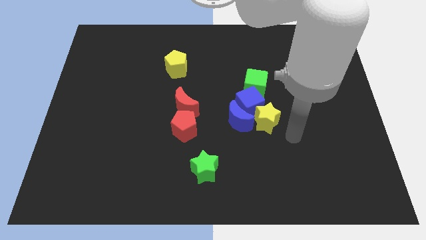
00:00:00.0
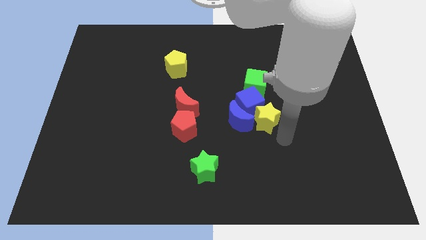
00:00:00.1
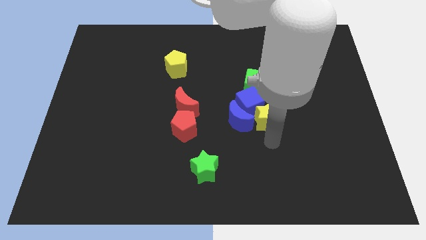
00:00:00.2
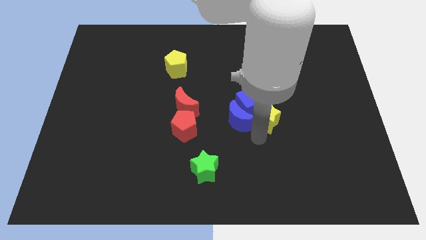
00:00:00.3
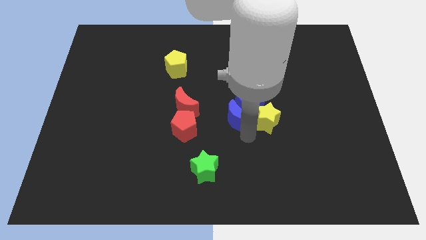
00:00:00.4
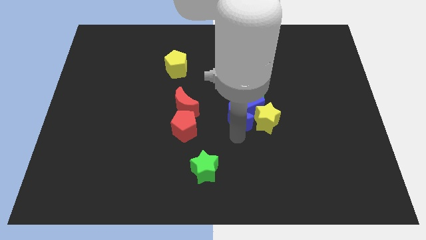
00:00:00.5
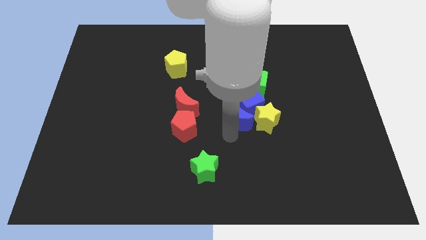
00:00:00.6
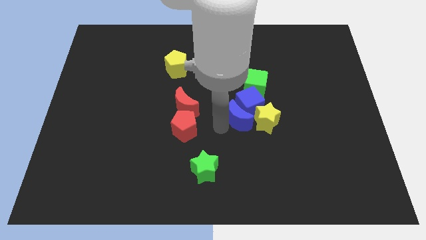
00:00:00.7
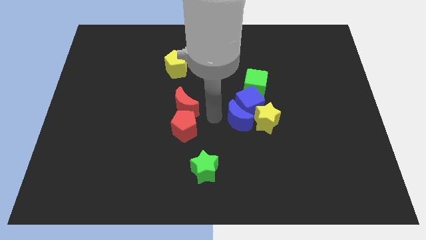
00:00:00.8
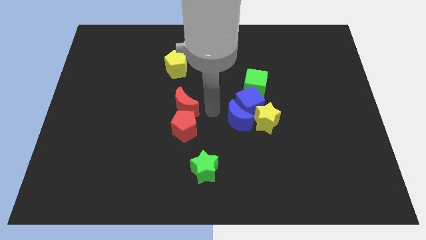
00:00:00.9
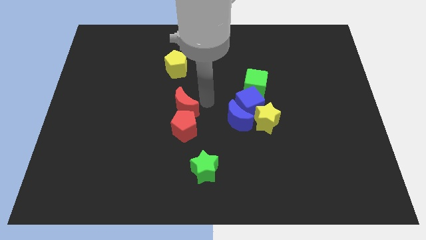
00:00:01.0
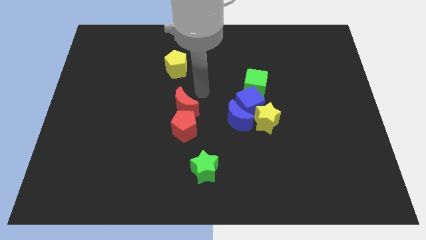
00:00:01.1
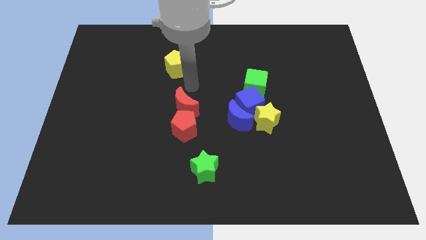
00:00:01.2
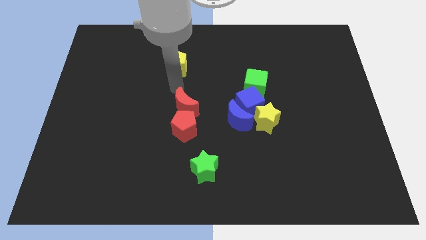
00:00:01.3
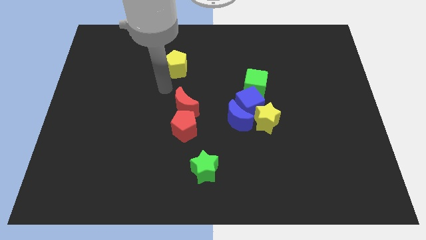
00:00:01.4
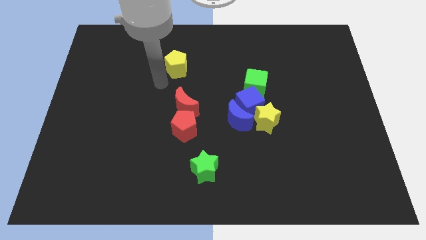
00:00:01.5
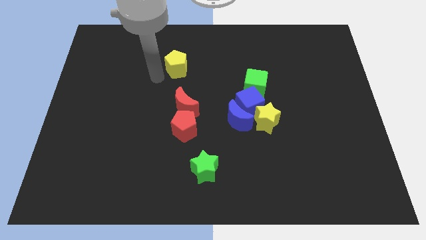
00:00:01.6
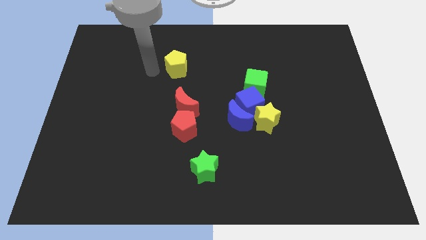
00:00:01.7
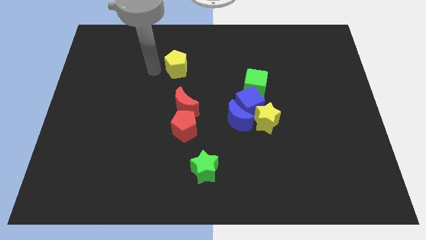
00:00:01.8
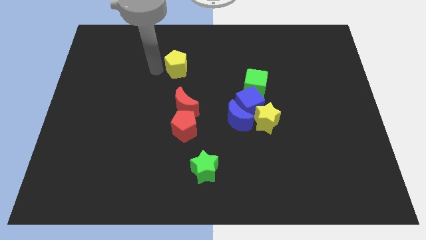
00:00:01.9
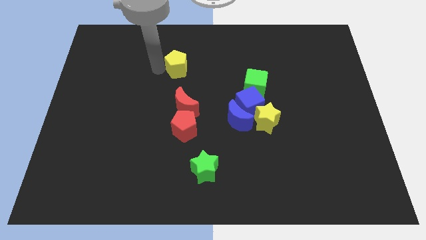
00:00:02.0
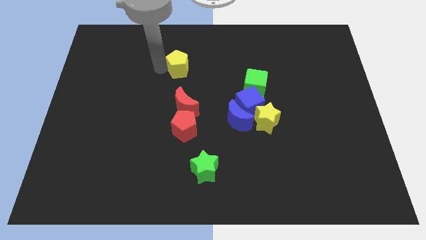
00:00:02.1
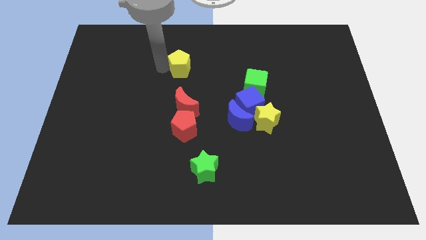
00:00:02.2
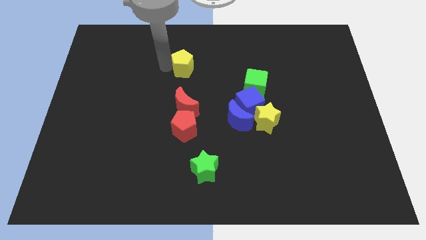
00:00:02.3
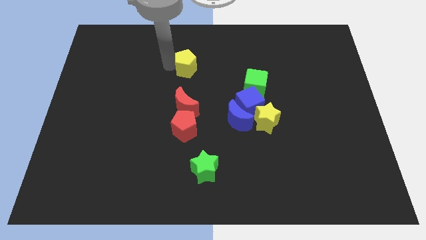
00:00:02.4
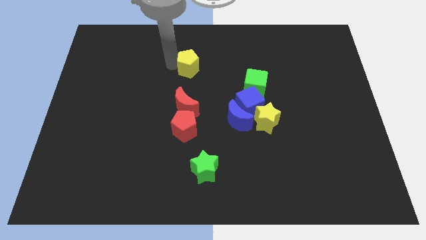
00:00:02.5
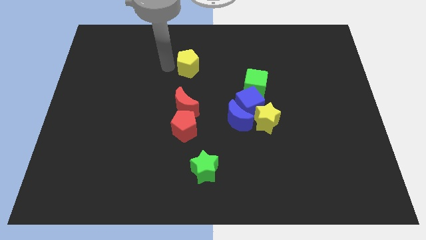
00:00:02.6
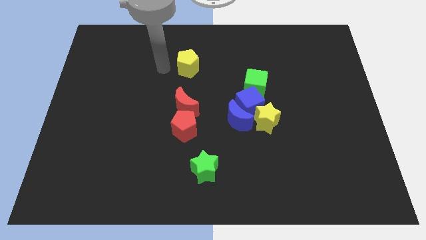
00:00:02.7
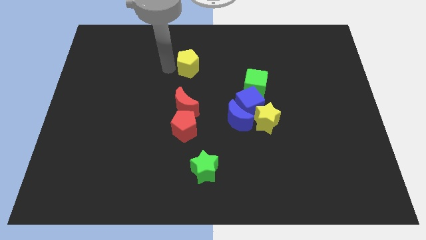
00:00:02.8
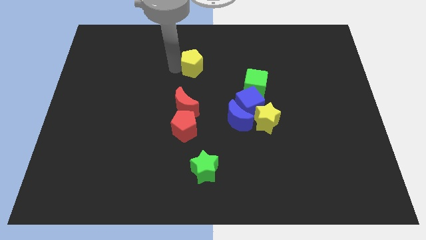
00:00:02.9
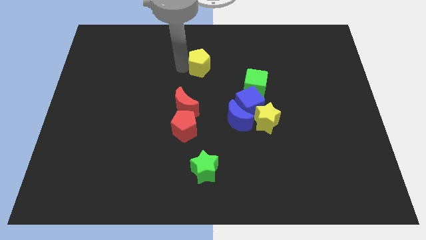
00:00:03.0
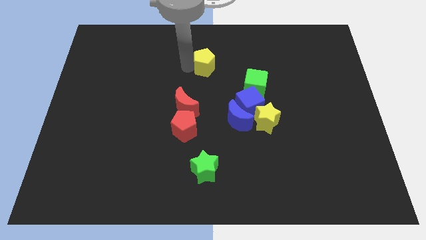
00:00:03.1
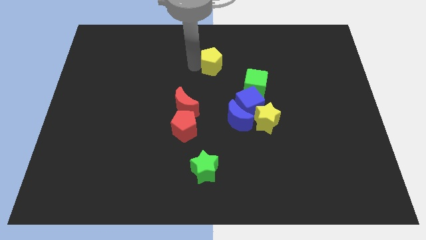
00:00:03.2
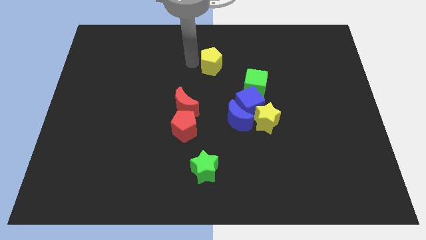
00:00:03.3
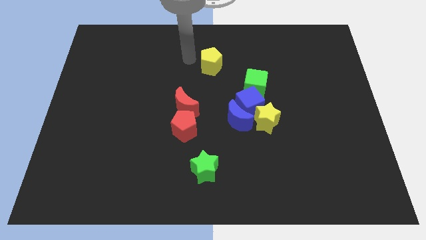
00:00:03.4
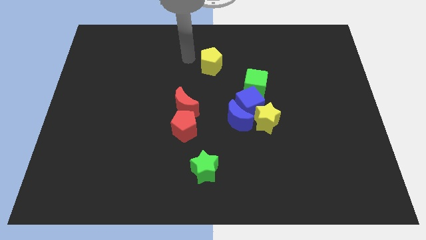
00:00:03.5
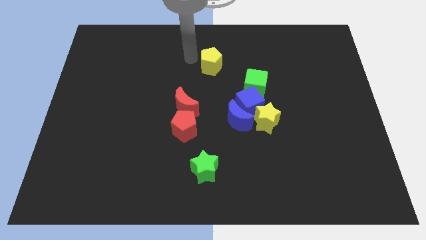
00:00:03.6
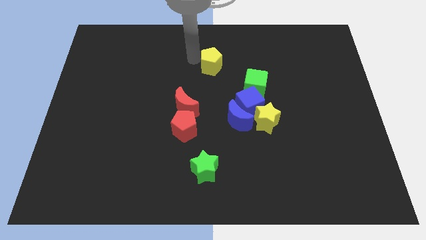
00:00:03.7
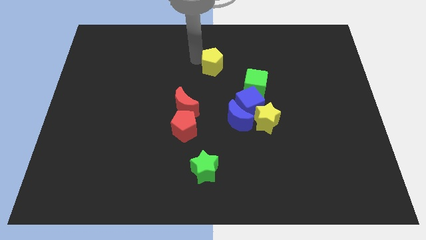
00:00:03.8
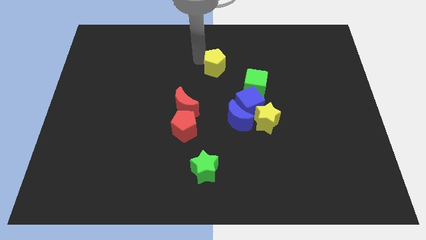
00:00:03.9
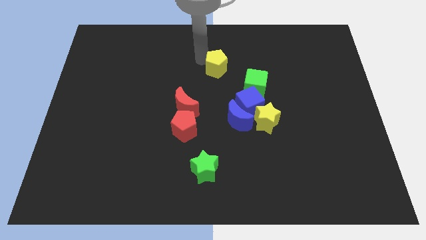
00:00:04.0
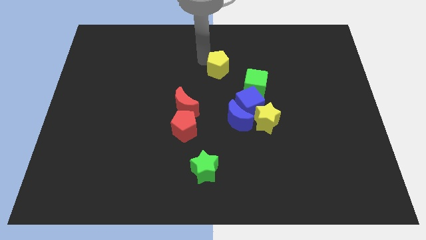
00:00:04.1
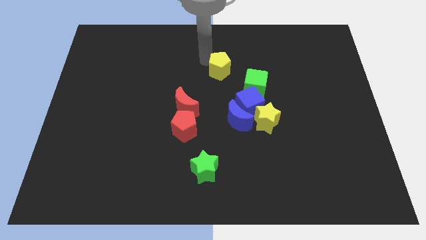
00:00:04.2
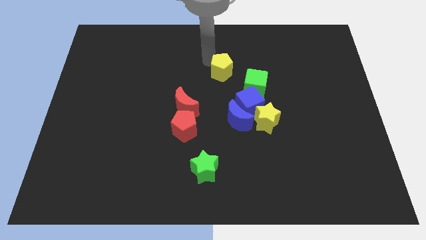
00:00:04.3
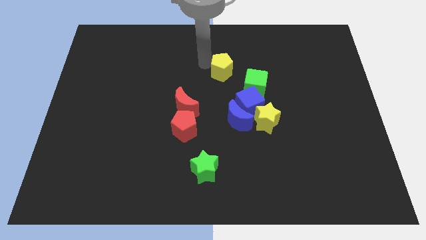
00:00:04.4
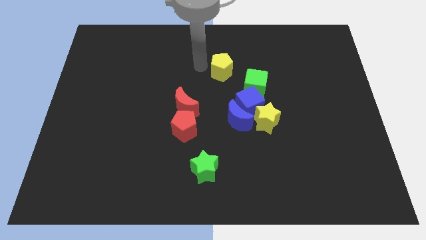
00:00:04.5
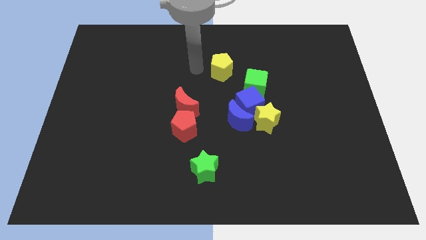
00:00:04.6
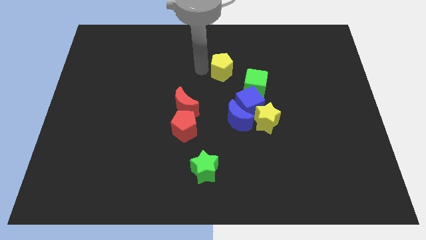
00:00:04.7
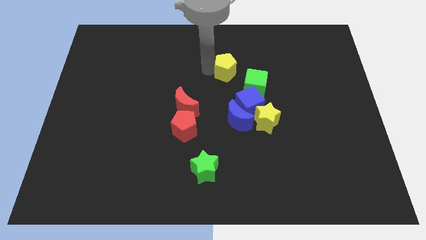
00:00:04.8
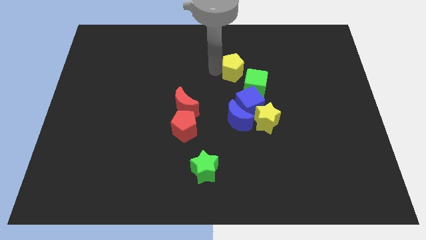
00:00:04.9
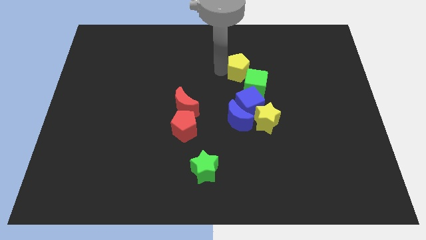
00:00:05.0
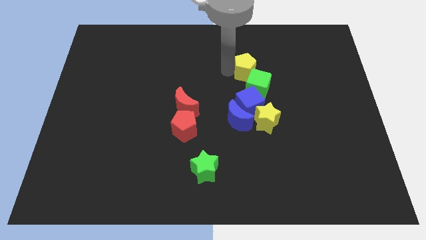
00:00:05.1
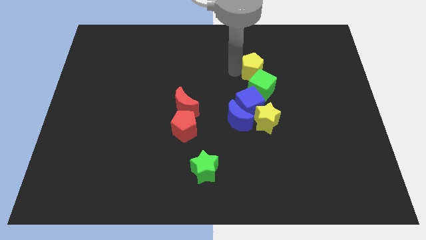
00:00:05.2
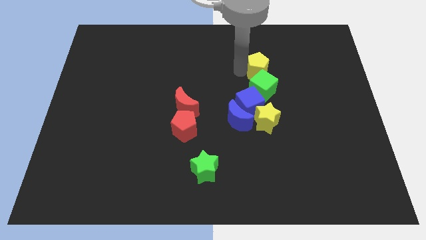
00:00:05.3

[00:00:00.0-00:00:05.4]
push the yellow pentagon to the right

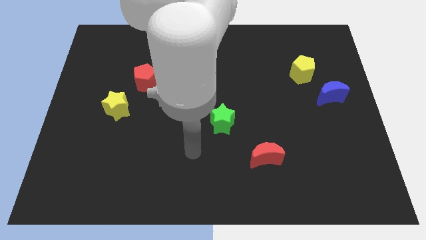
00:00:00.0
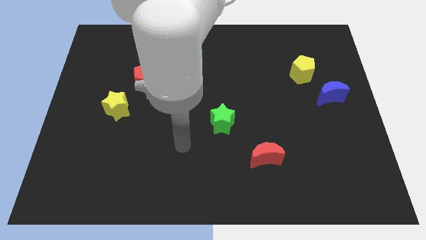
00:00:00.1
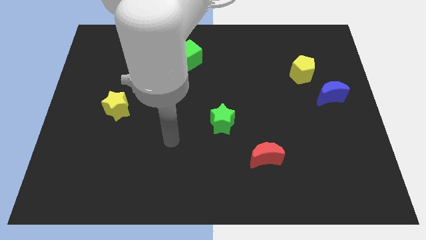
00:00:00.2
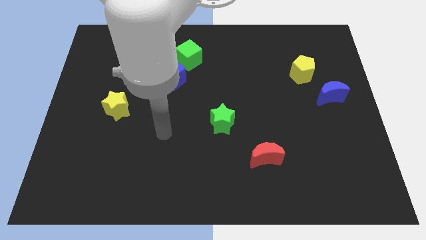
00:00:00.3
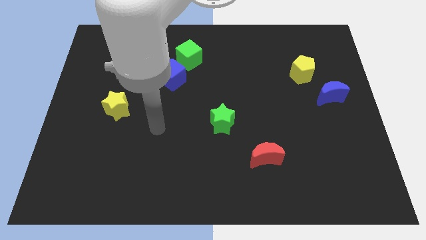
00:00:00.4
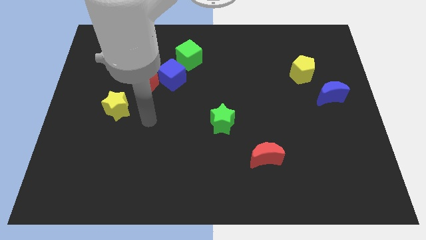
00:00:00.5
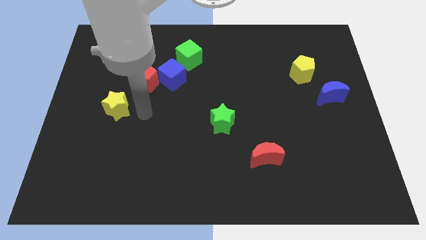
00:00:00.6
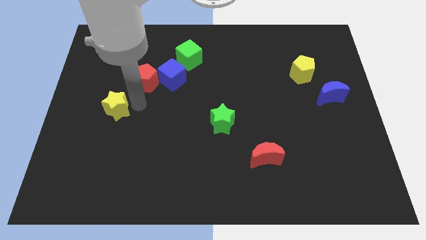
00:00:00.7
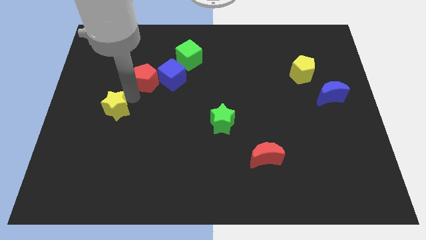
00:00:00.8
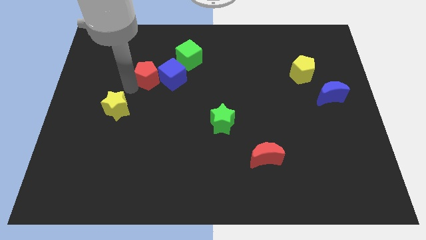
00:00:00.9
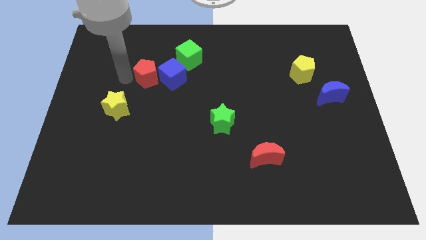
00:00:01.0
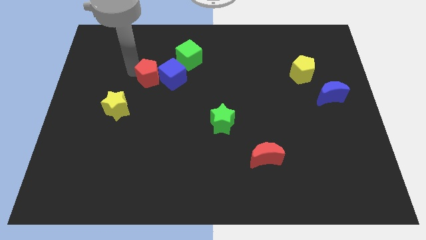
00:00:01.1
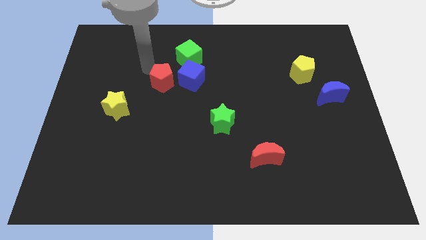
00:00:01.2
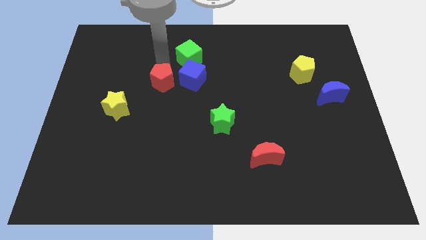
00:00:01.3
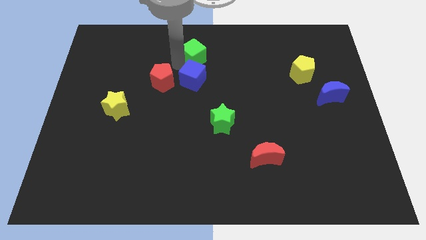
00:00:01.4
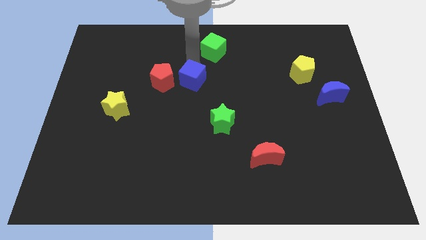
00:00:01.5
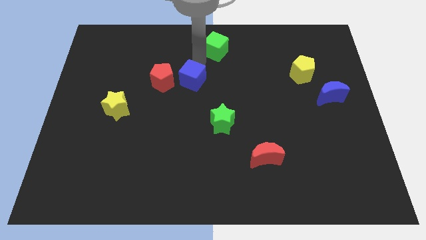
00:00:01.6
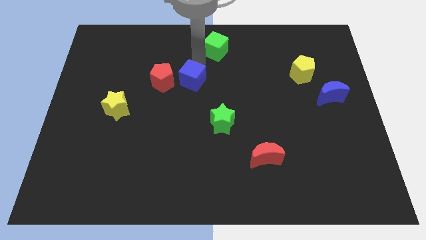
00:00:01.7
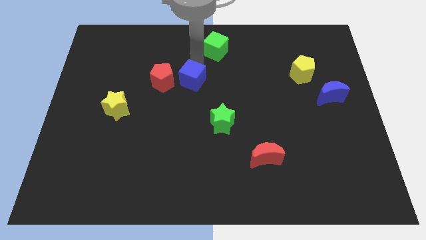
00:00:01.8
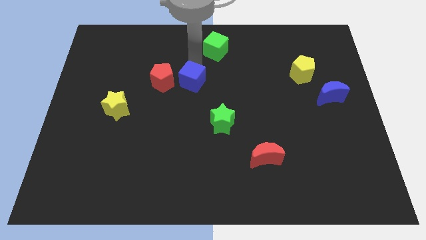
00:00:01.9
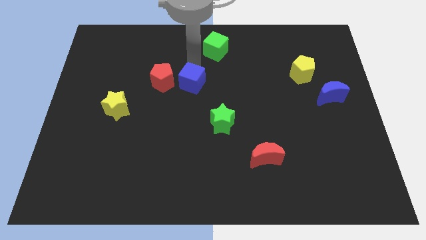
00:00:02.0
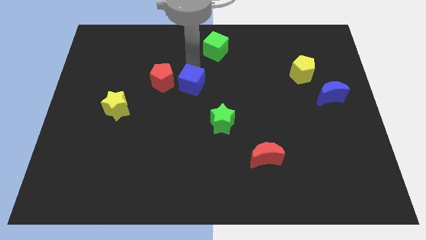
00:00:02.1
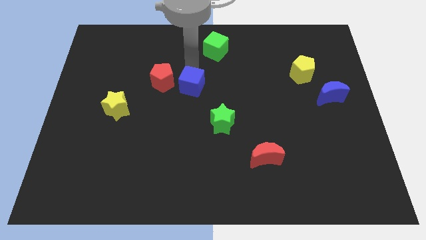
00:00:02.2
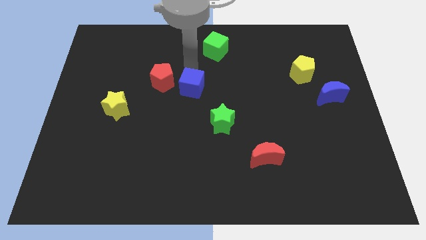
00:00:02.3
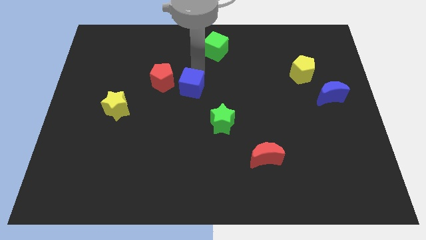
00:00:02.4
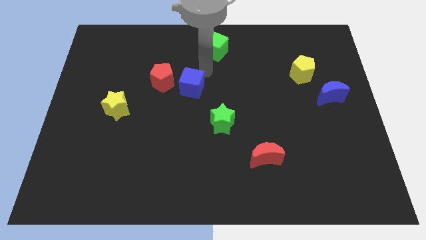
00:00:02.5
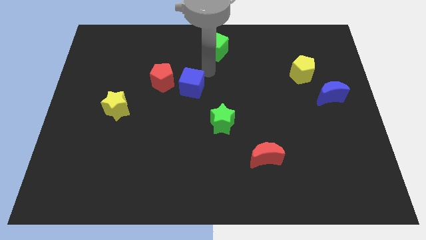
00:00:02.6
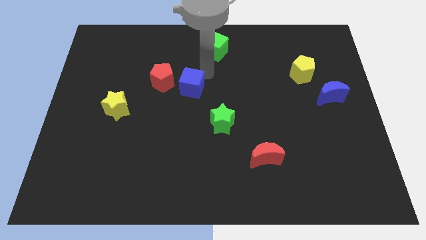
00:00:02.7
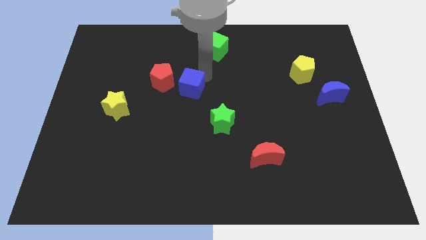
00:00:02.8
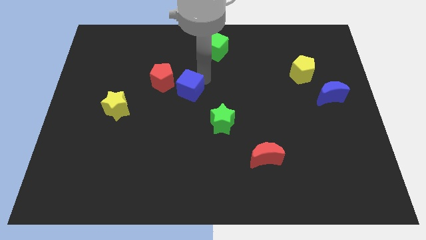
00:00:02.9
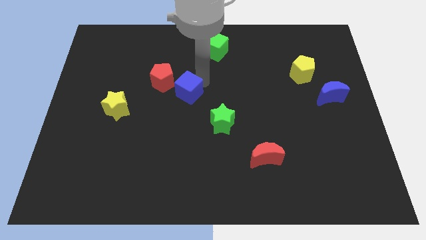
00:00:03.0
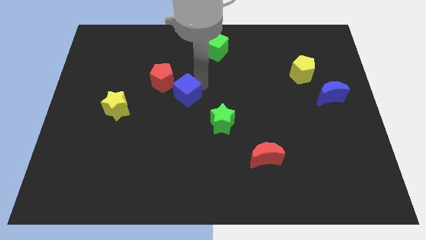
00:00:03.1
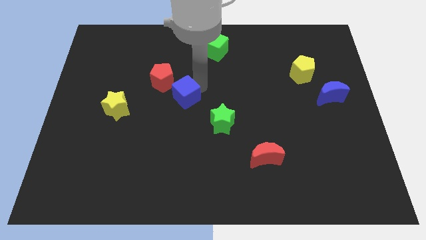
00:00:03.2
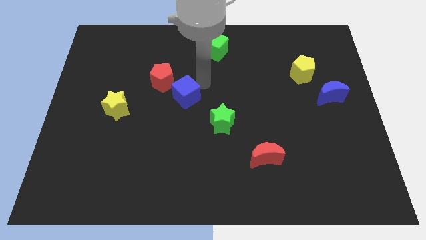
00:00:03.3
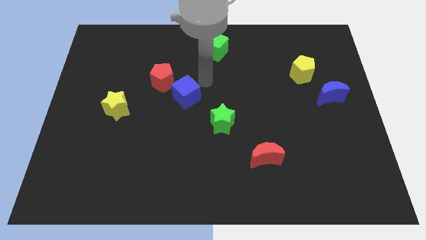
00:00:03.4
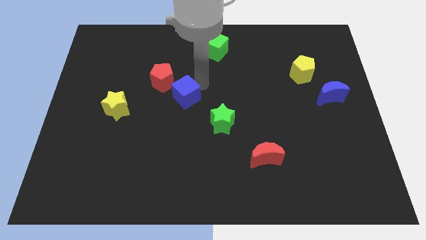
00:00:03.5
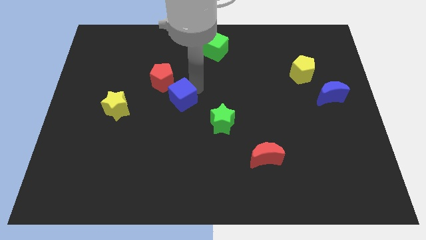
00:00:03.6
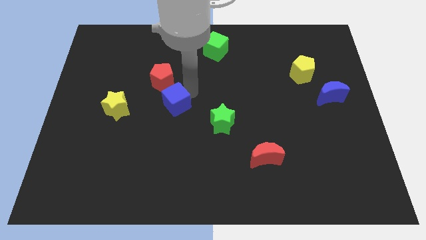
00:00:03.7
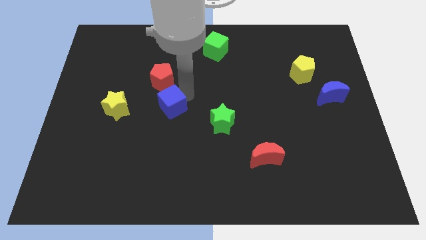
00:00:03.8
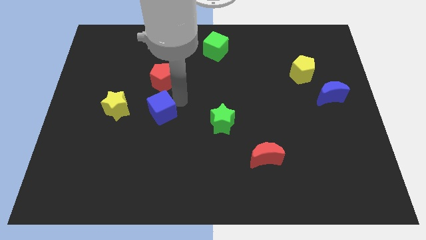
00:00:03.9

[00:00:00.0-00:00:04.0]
slightly push the blue cube down and to the left
